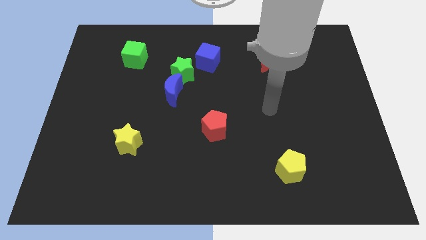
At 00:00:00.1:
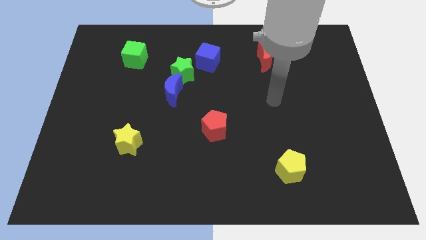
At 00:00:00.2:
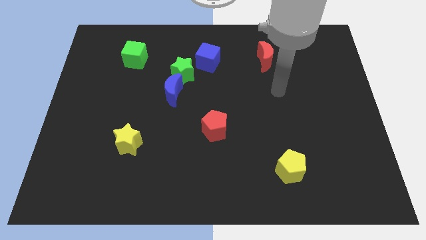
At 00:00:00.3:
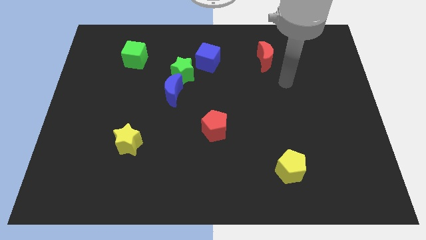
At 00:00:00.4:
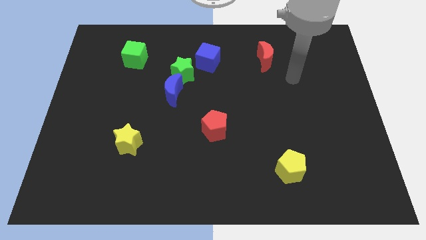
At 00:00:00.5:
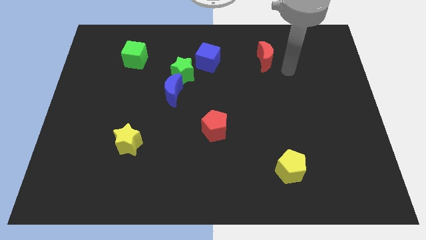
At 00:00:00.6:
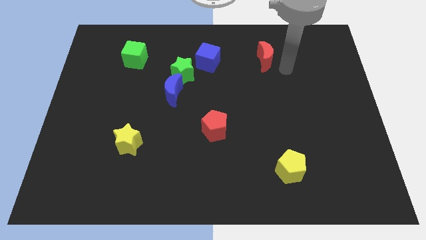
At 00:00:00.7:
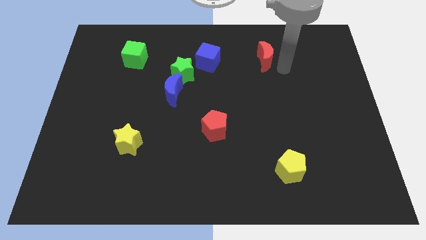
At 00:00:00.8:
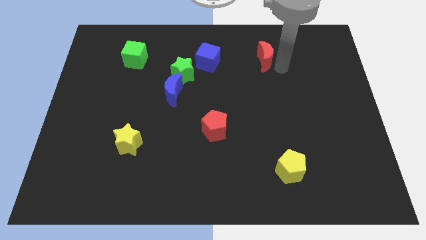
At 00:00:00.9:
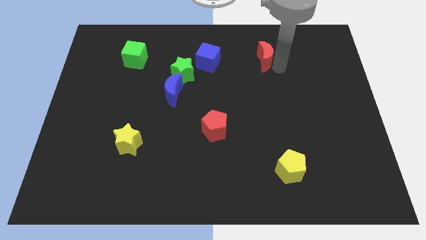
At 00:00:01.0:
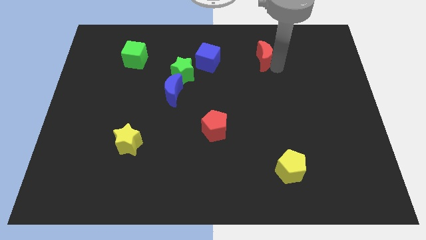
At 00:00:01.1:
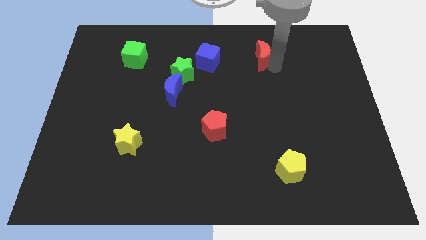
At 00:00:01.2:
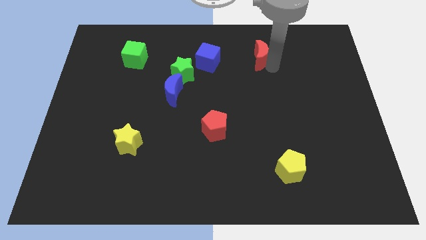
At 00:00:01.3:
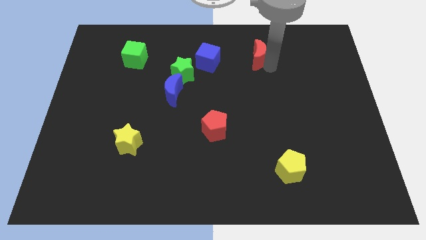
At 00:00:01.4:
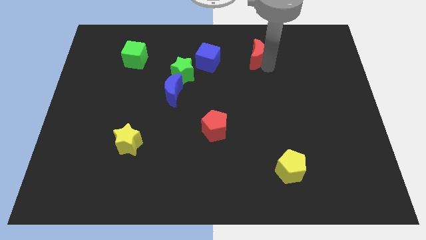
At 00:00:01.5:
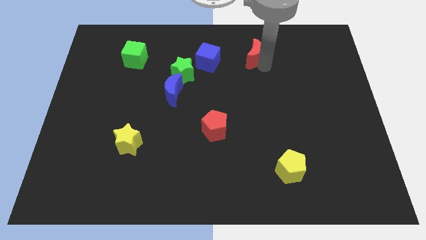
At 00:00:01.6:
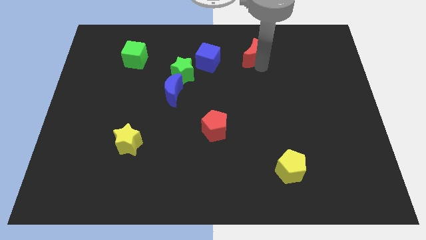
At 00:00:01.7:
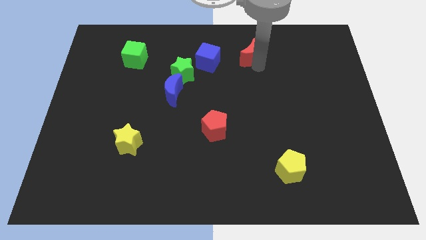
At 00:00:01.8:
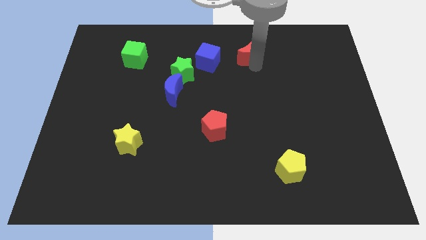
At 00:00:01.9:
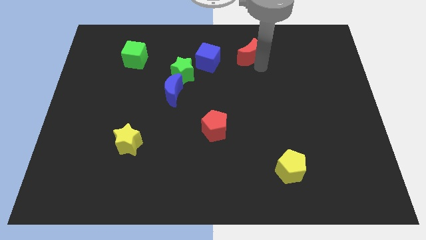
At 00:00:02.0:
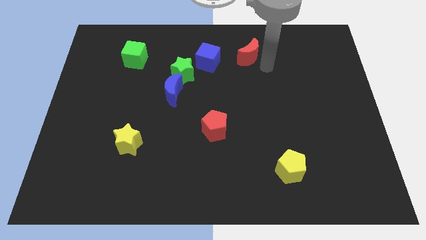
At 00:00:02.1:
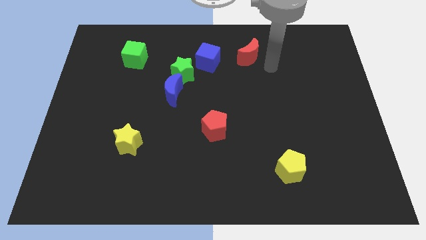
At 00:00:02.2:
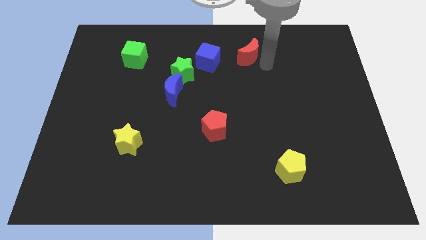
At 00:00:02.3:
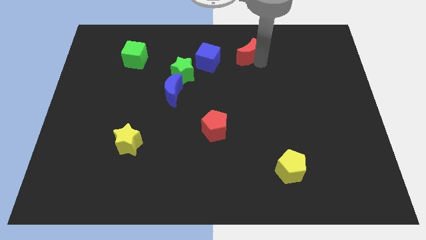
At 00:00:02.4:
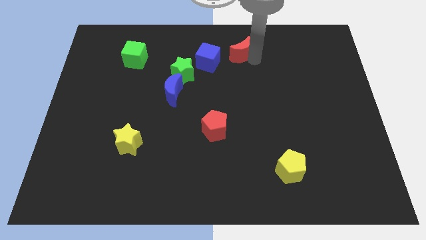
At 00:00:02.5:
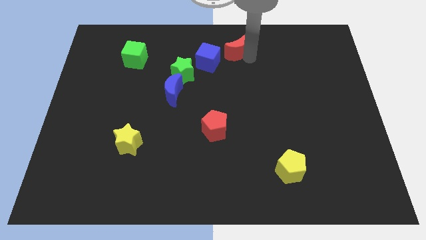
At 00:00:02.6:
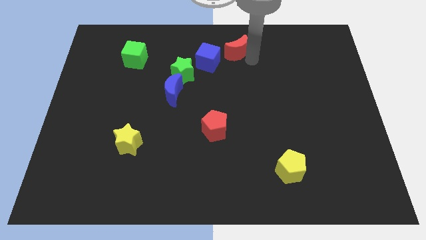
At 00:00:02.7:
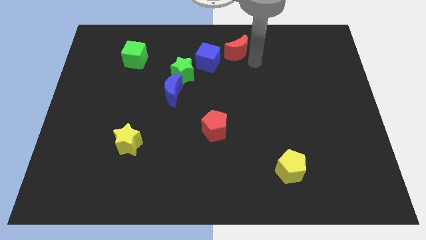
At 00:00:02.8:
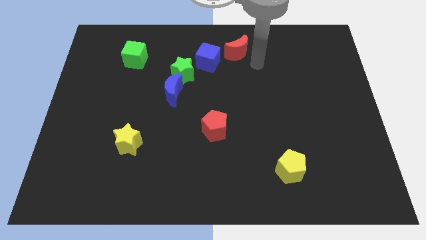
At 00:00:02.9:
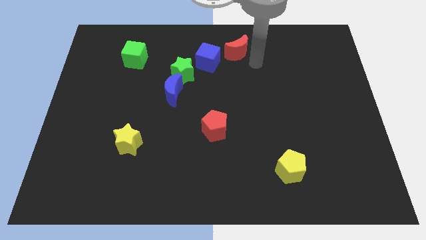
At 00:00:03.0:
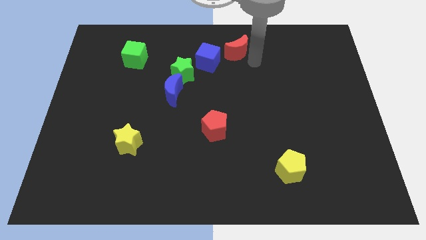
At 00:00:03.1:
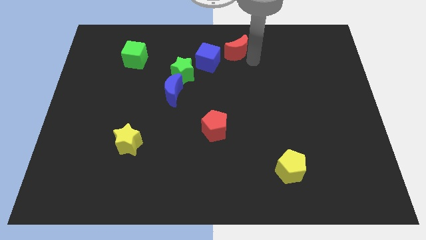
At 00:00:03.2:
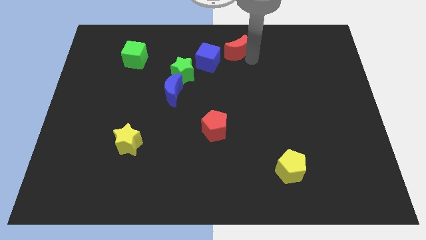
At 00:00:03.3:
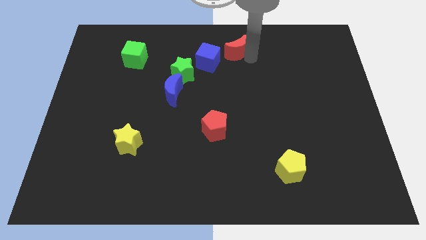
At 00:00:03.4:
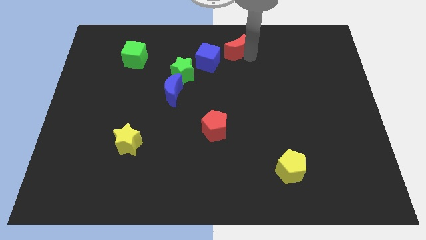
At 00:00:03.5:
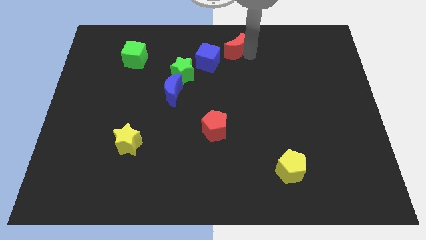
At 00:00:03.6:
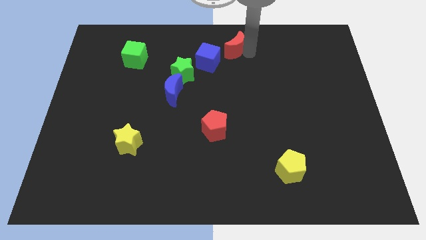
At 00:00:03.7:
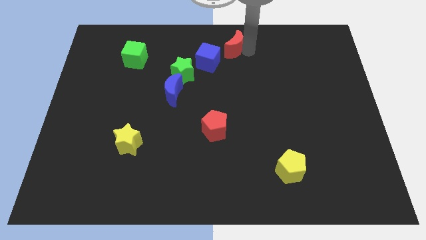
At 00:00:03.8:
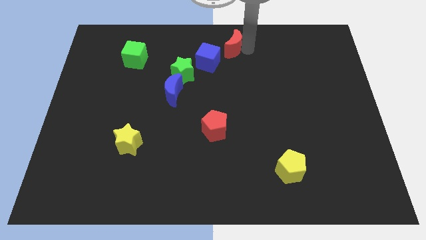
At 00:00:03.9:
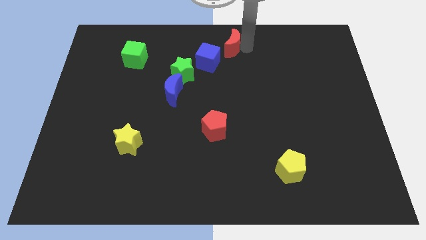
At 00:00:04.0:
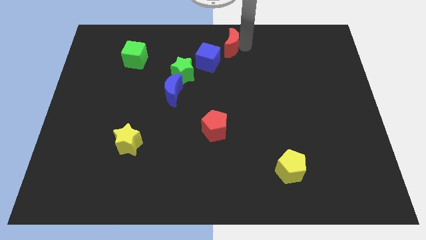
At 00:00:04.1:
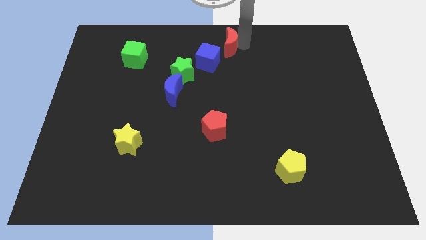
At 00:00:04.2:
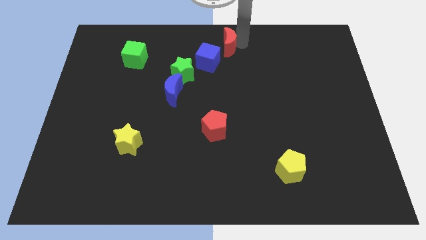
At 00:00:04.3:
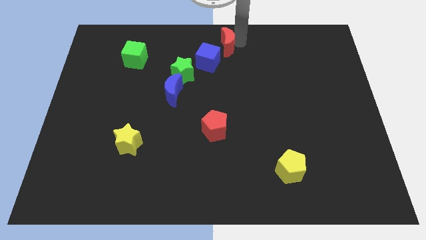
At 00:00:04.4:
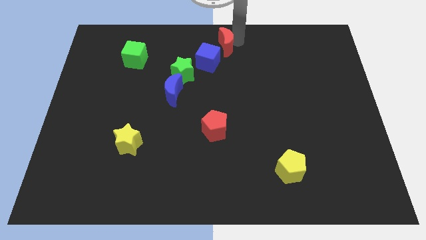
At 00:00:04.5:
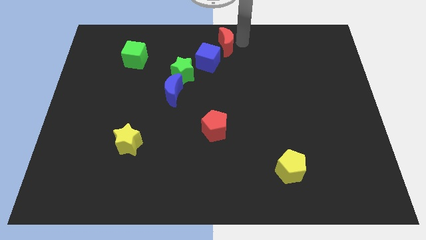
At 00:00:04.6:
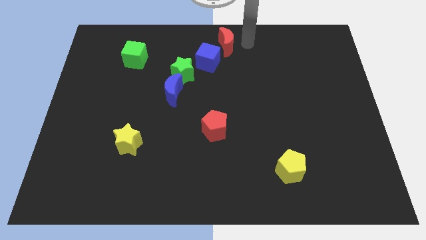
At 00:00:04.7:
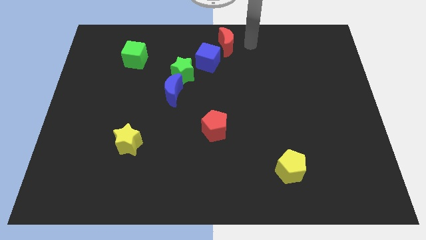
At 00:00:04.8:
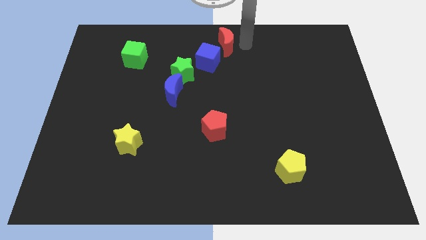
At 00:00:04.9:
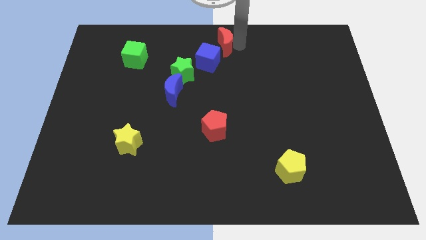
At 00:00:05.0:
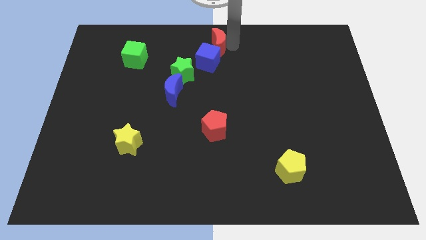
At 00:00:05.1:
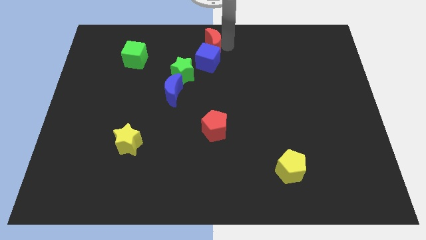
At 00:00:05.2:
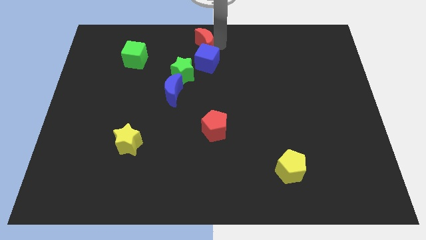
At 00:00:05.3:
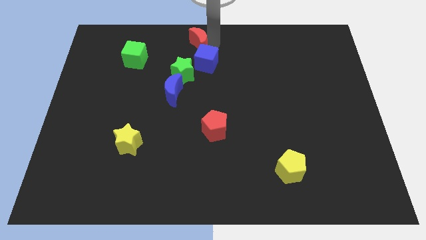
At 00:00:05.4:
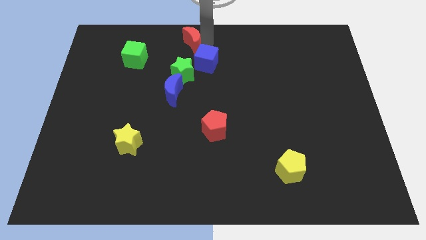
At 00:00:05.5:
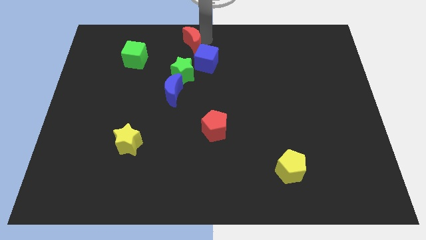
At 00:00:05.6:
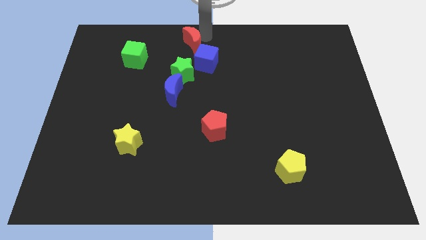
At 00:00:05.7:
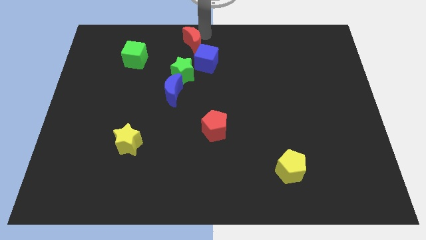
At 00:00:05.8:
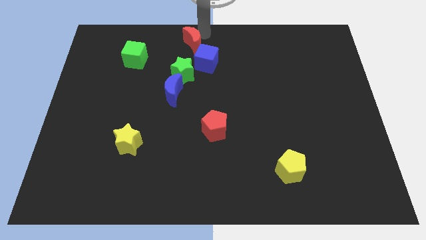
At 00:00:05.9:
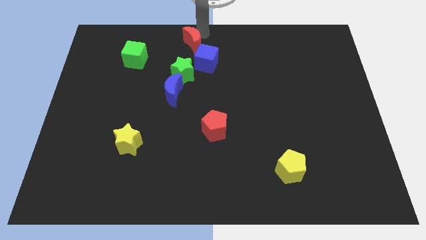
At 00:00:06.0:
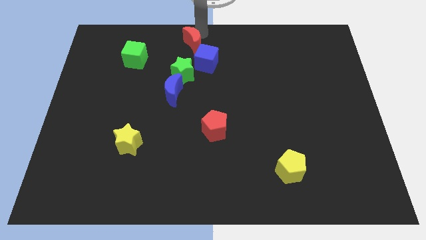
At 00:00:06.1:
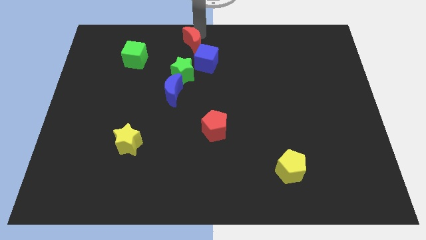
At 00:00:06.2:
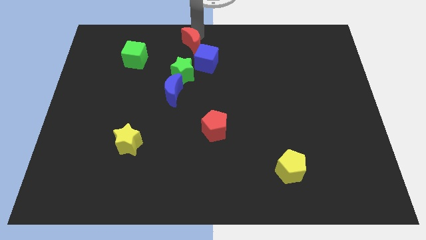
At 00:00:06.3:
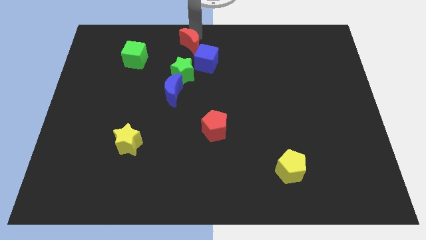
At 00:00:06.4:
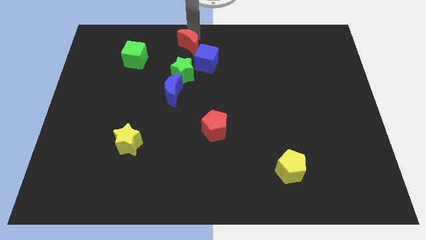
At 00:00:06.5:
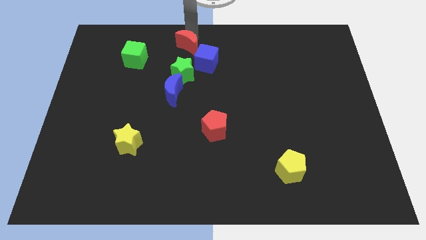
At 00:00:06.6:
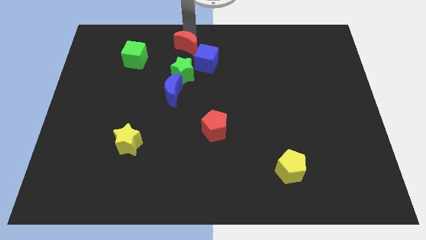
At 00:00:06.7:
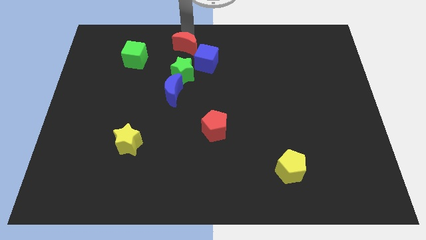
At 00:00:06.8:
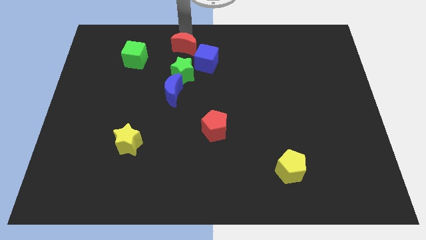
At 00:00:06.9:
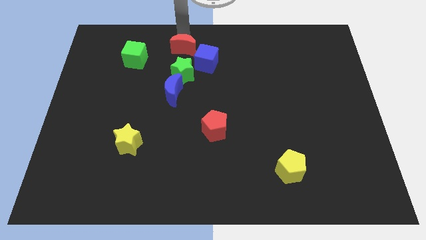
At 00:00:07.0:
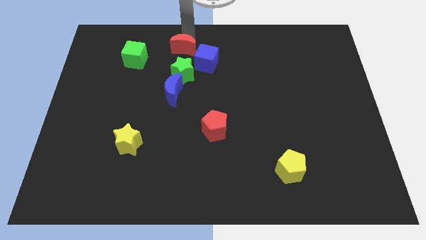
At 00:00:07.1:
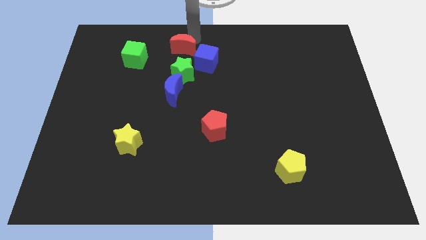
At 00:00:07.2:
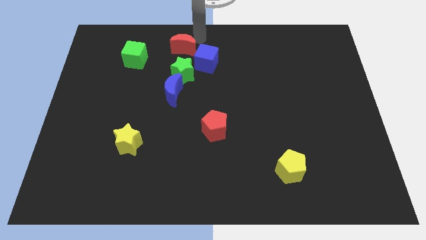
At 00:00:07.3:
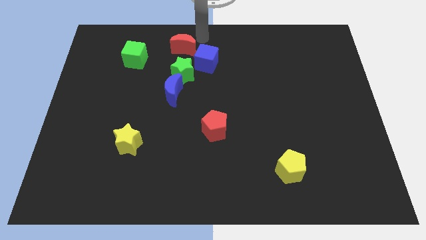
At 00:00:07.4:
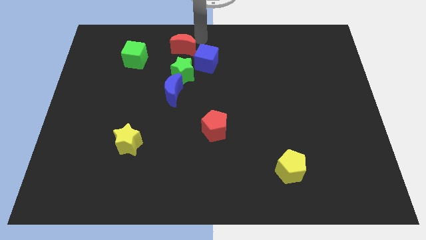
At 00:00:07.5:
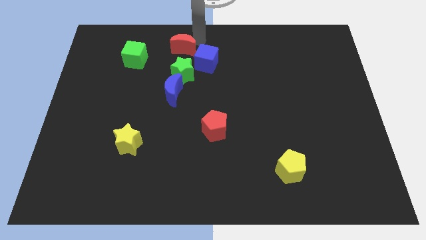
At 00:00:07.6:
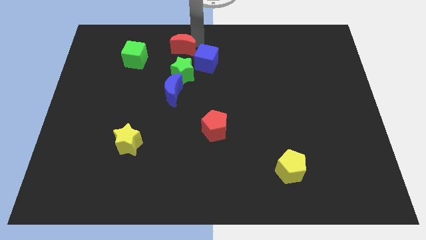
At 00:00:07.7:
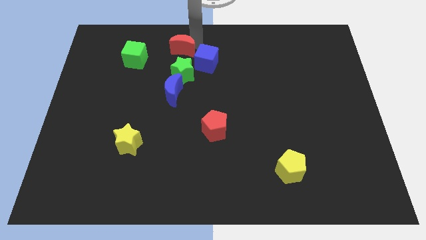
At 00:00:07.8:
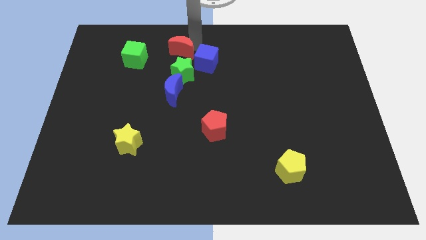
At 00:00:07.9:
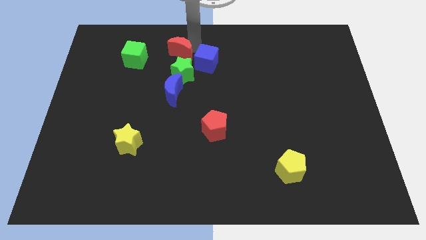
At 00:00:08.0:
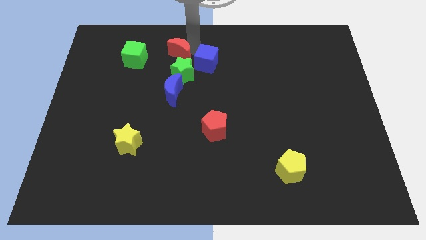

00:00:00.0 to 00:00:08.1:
slide the red moon to the top left side of the green star
